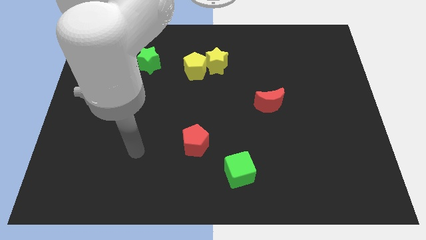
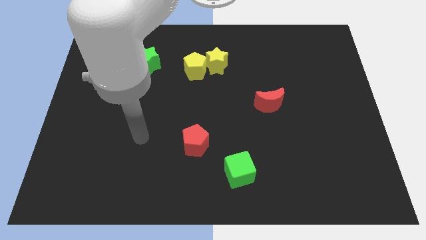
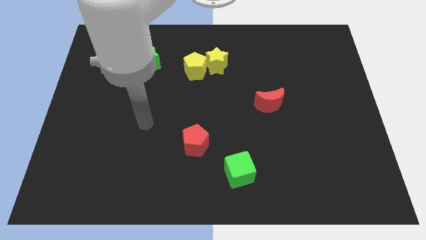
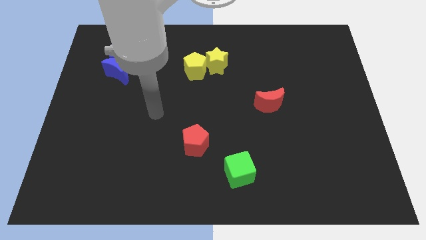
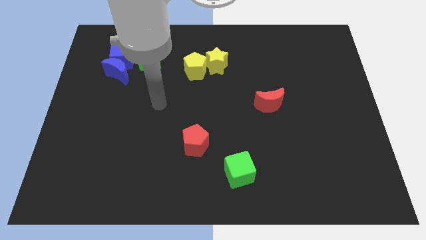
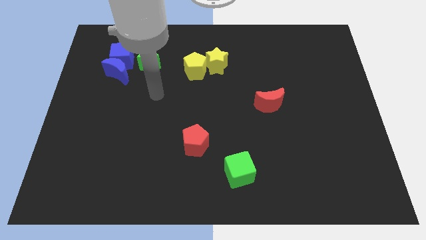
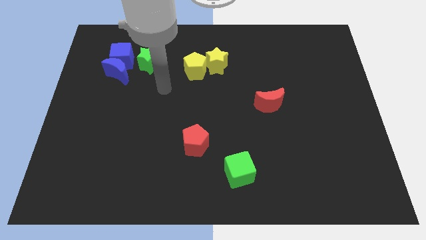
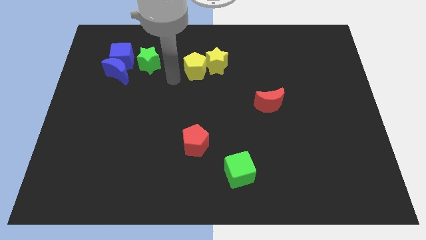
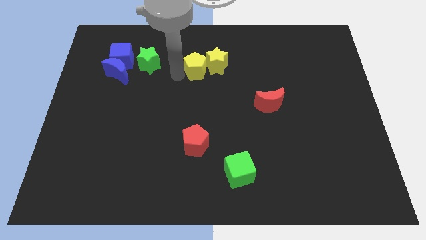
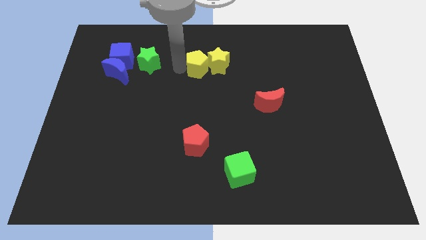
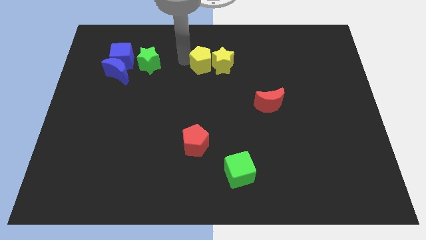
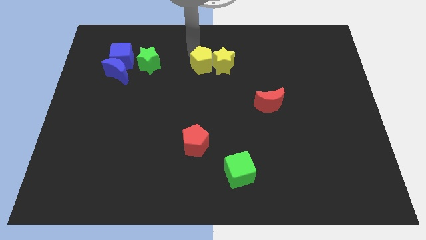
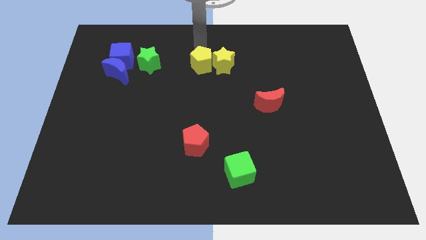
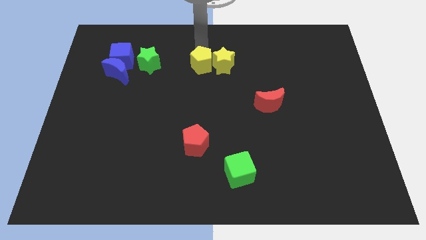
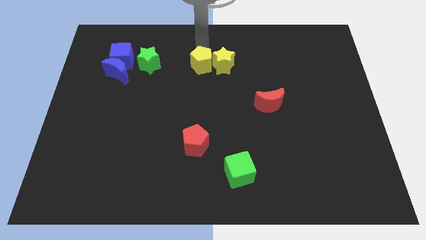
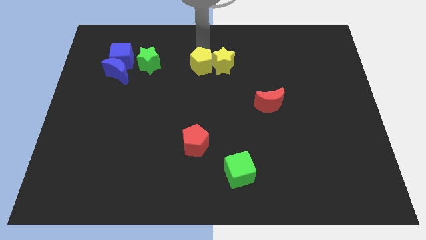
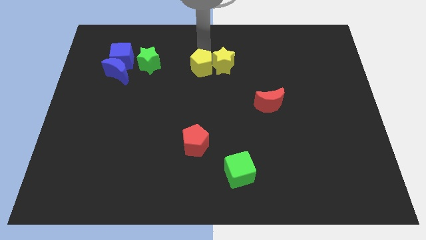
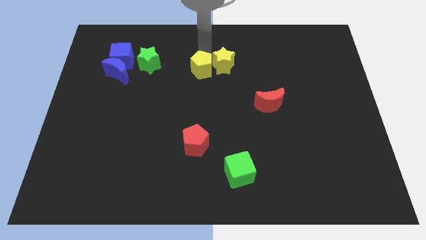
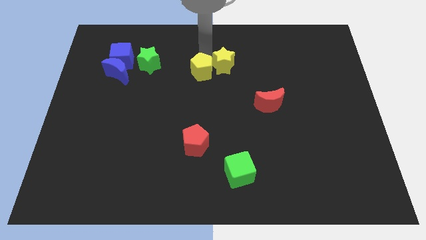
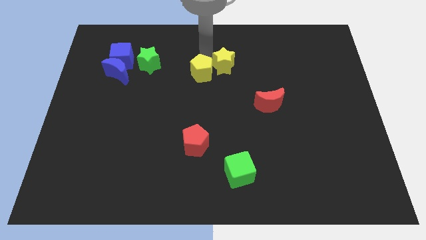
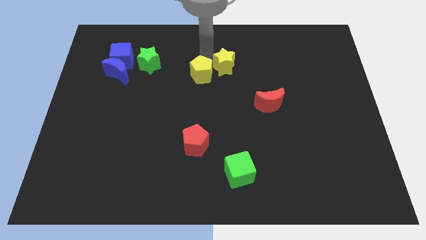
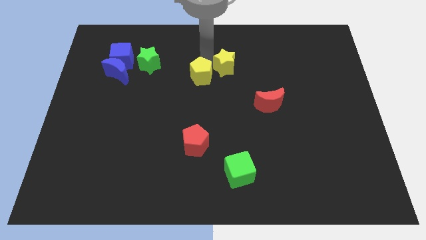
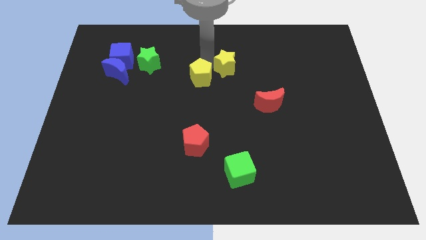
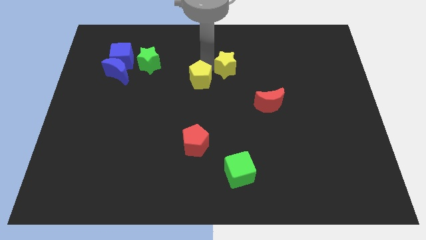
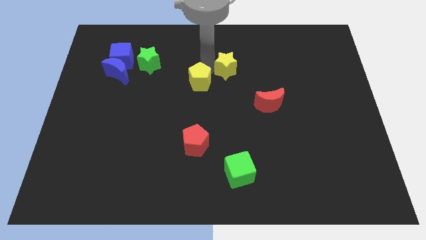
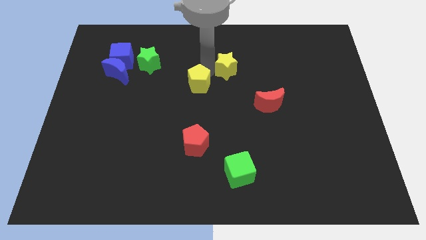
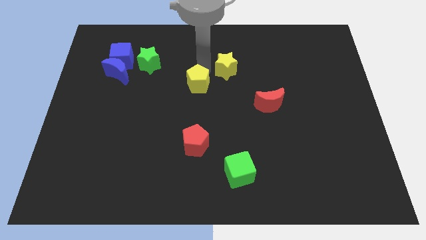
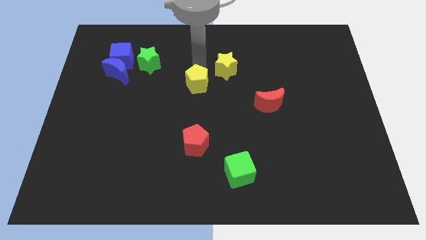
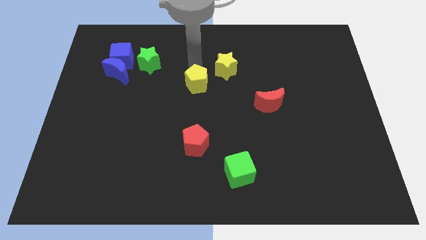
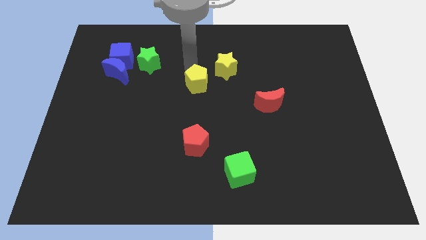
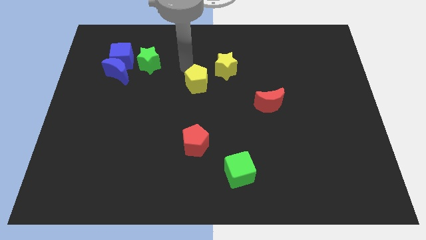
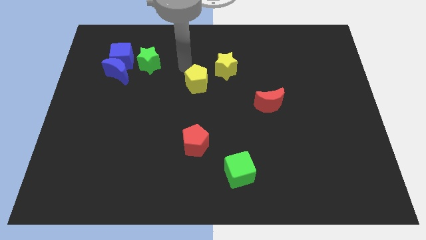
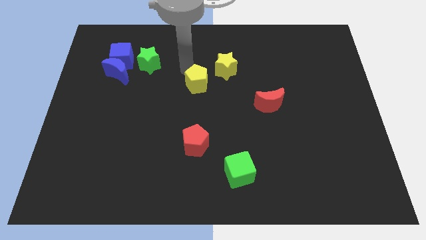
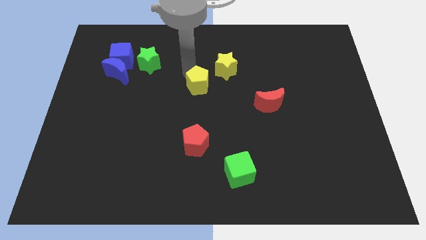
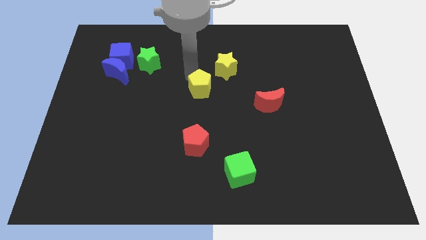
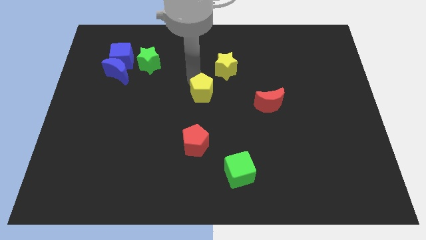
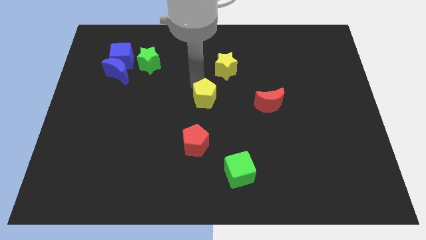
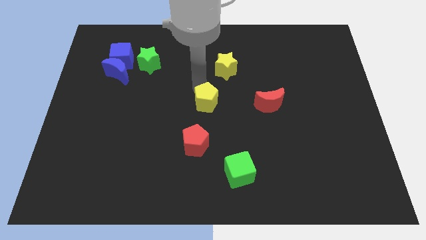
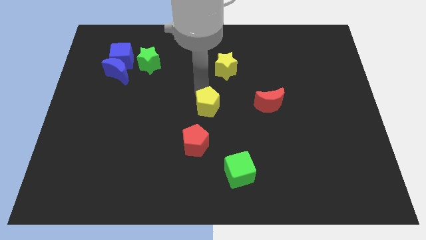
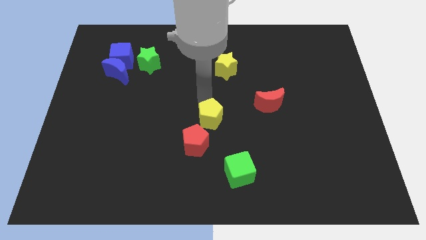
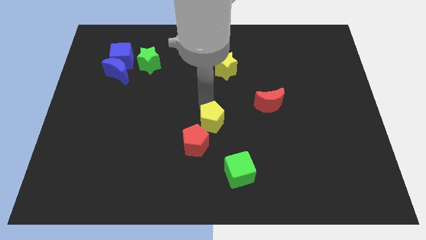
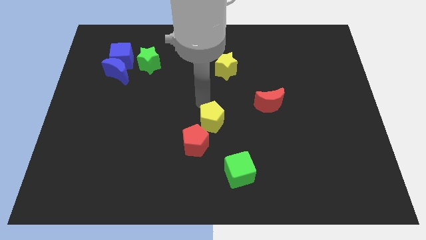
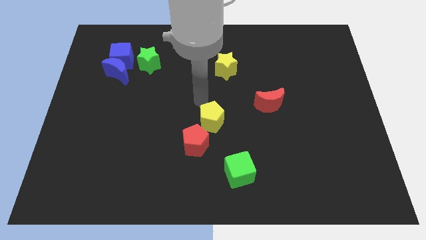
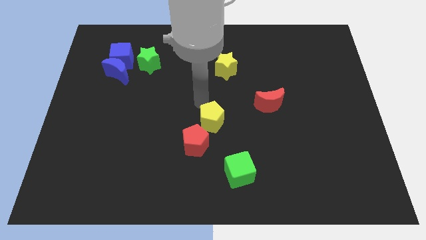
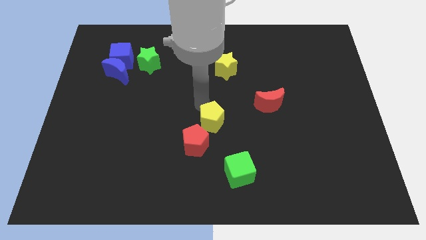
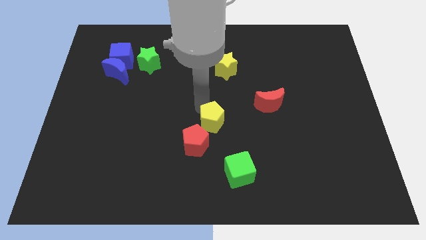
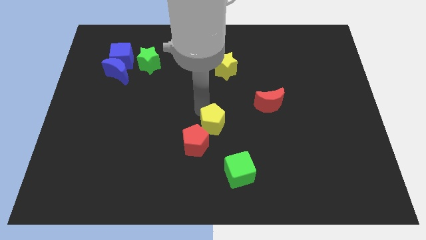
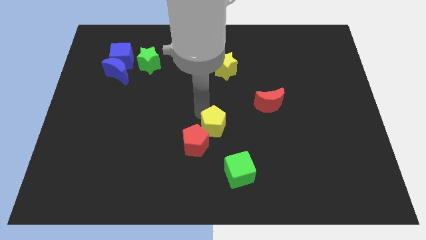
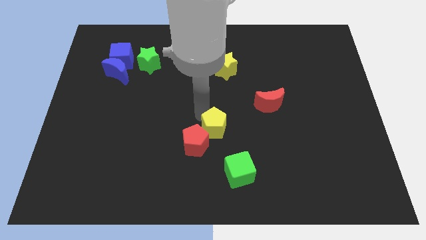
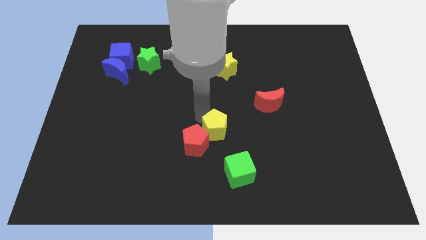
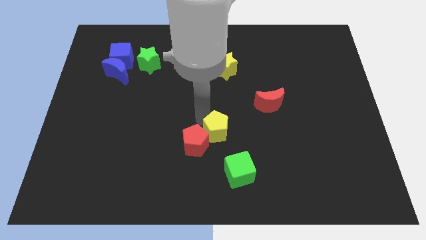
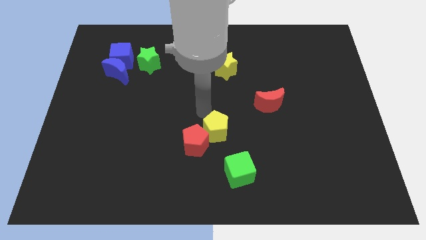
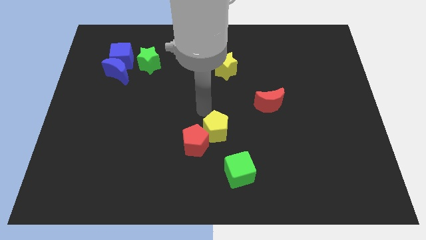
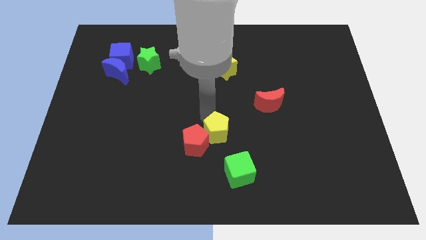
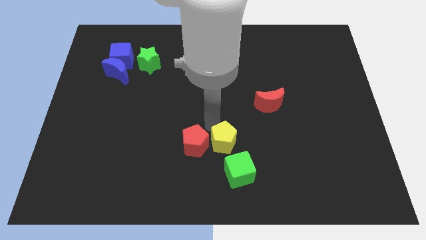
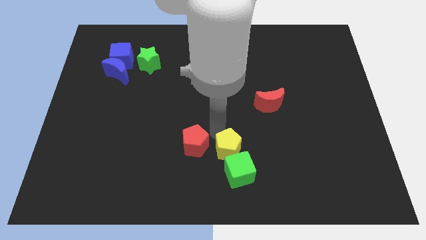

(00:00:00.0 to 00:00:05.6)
put the yellow pentagon towards the green cube

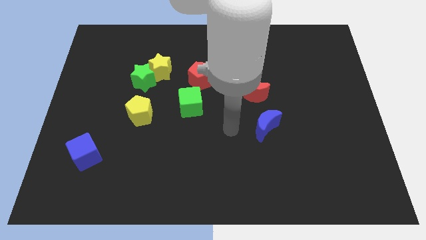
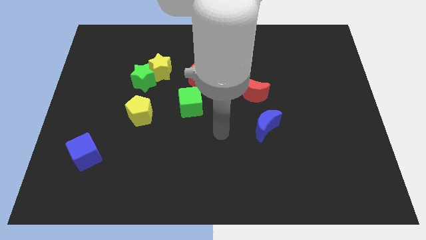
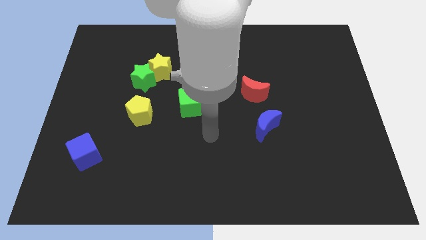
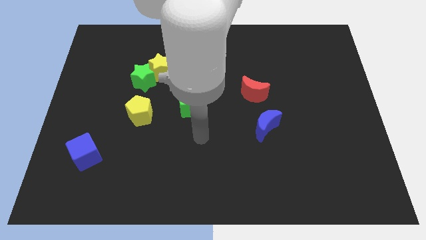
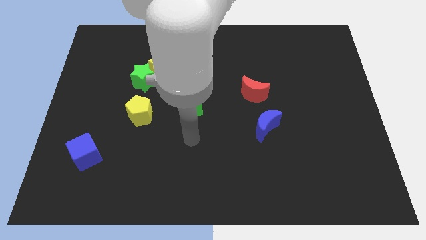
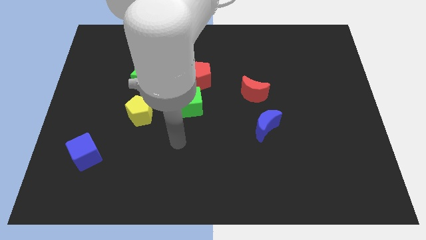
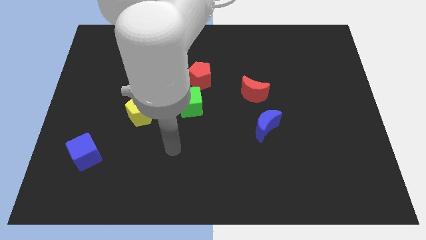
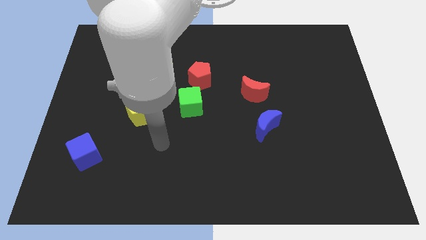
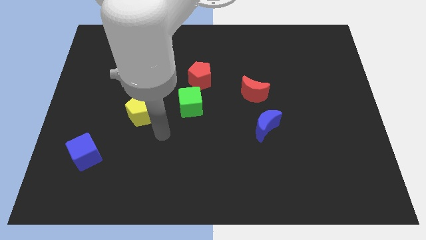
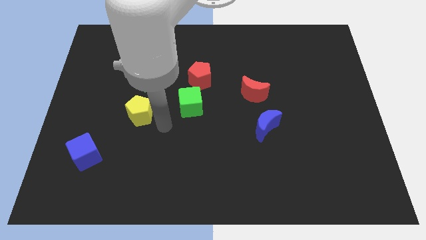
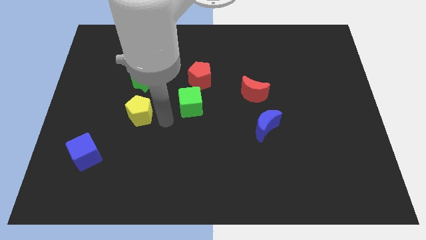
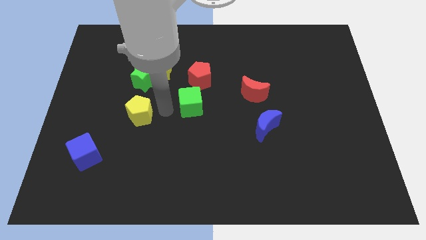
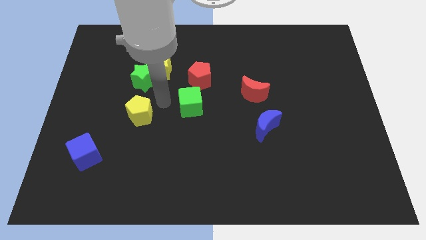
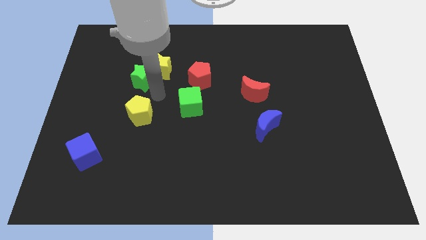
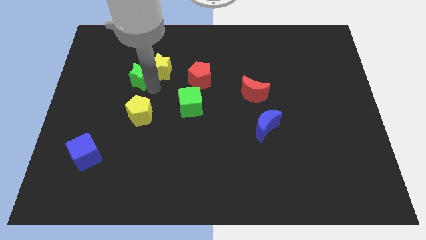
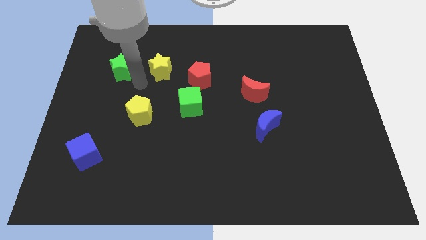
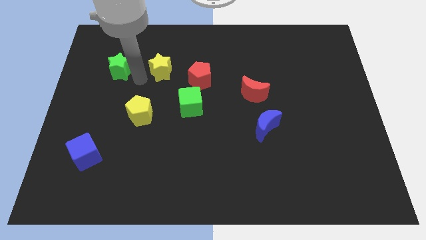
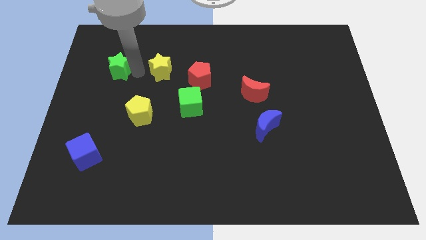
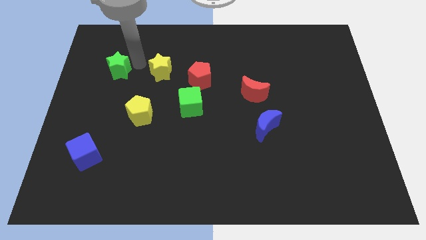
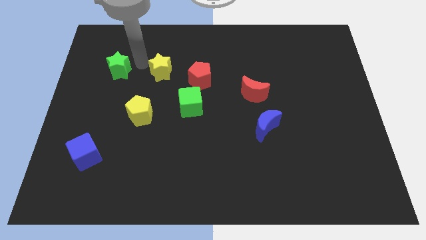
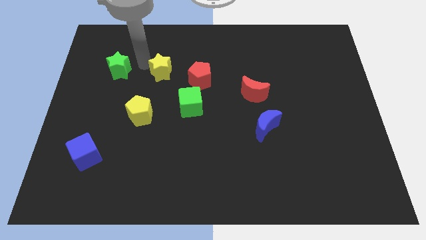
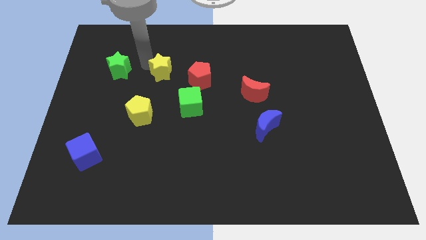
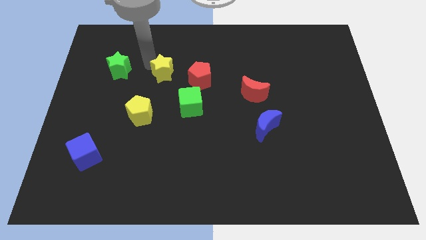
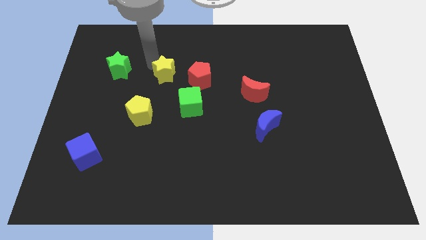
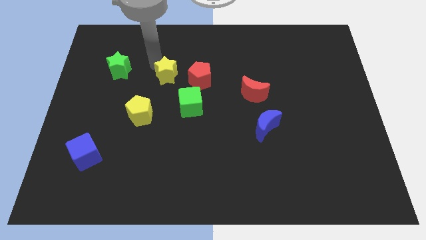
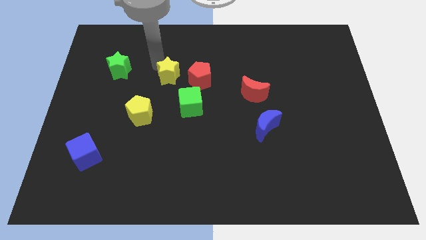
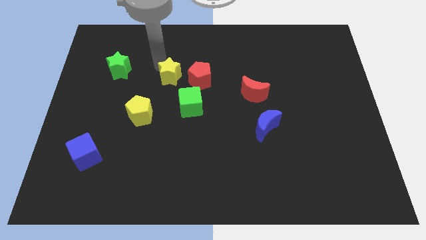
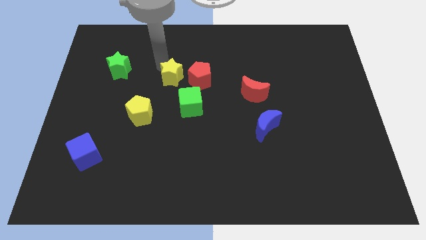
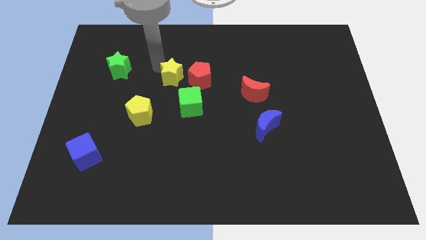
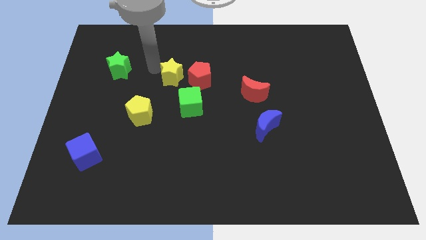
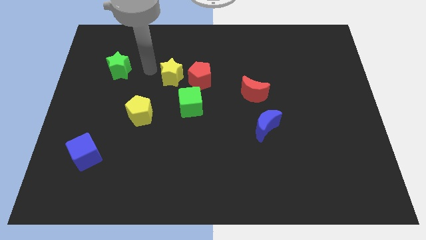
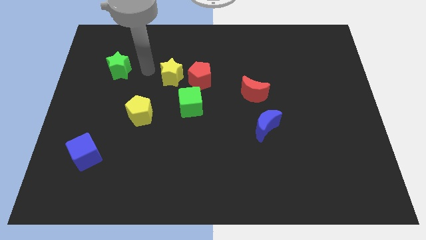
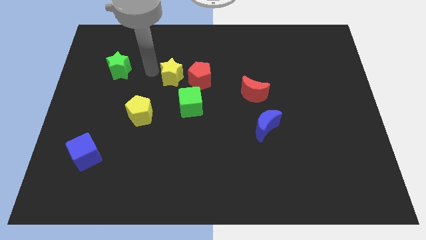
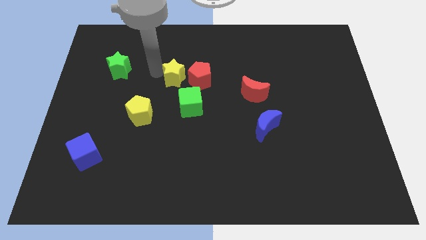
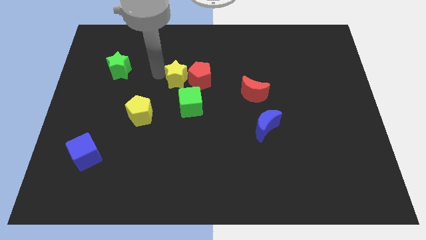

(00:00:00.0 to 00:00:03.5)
push the yellow star close to the red pentagon
